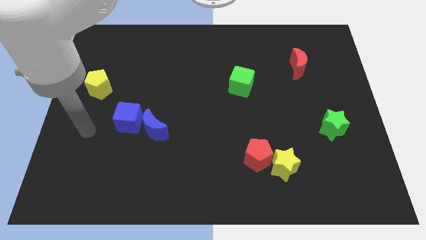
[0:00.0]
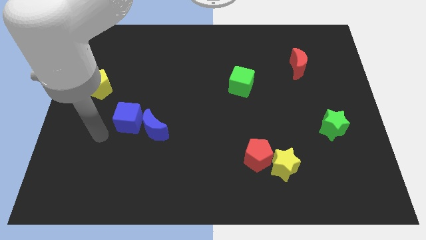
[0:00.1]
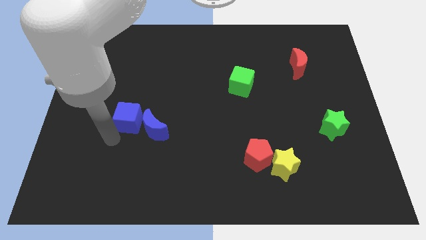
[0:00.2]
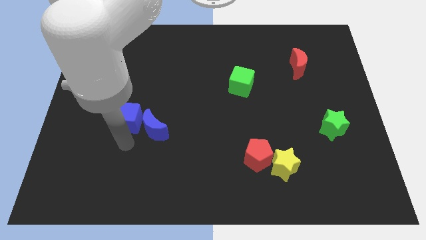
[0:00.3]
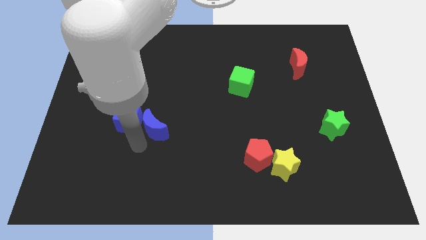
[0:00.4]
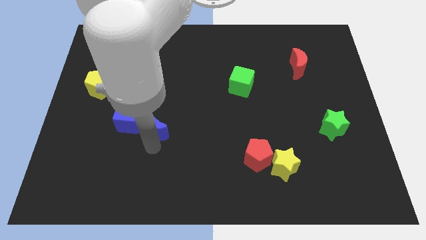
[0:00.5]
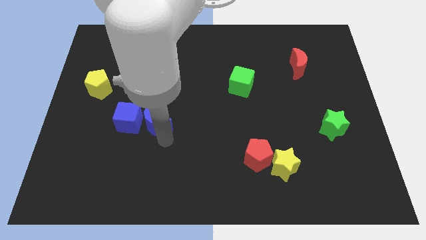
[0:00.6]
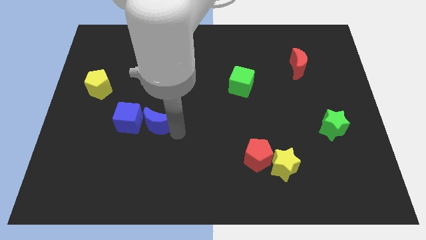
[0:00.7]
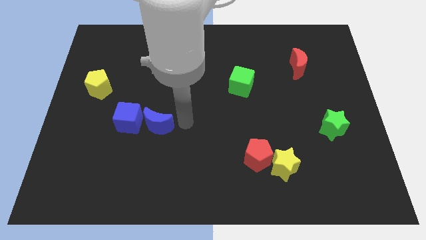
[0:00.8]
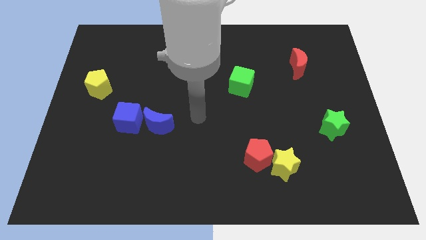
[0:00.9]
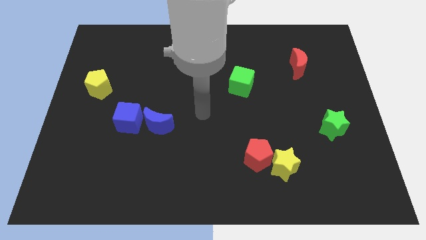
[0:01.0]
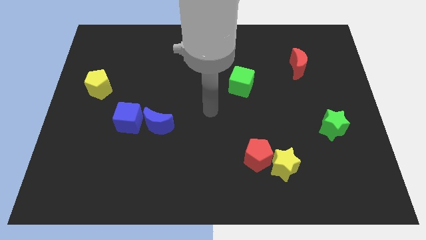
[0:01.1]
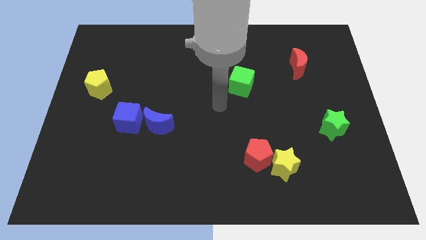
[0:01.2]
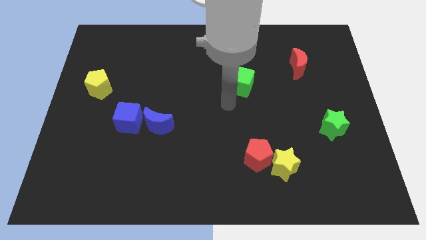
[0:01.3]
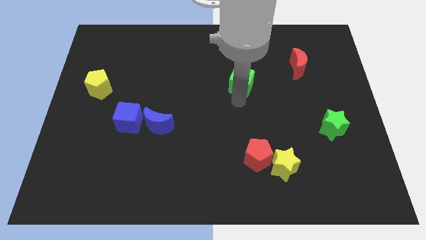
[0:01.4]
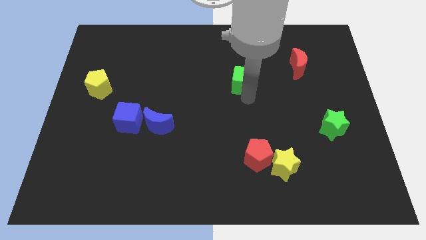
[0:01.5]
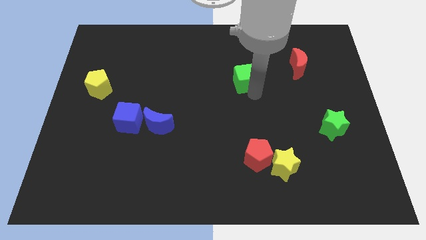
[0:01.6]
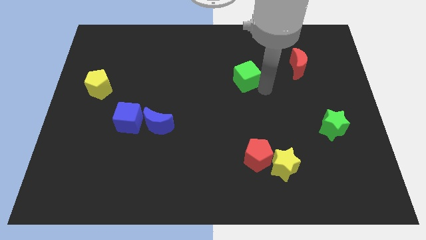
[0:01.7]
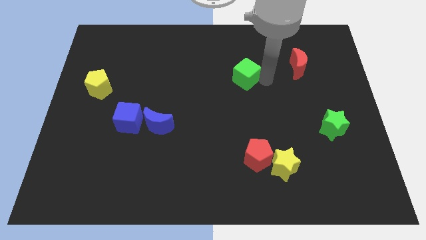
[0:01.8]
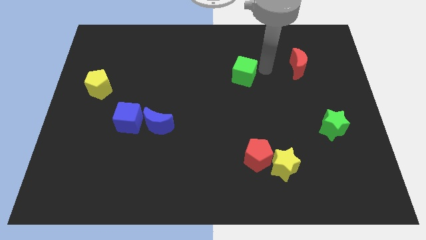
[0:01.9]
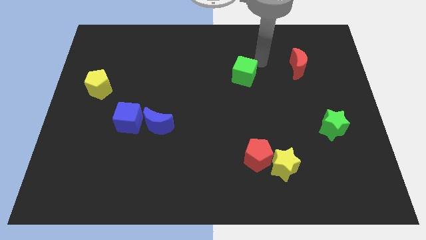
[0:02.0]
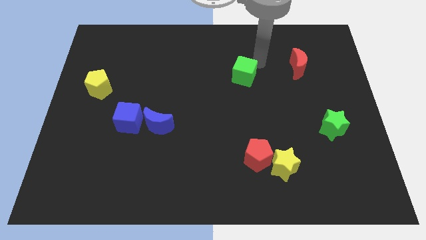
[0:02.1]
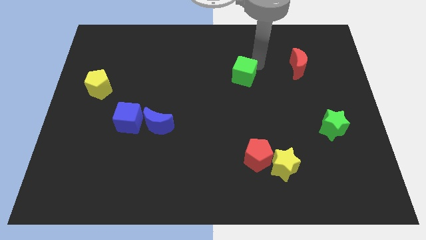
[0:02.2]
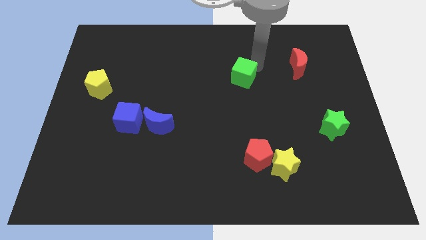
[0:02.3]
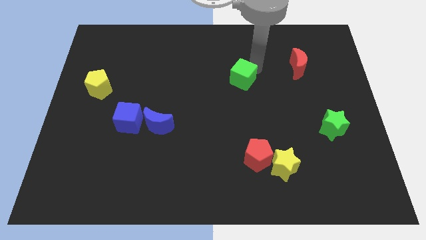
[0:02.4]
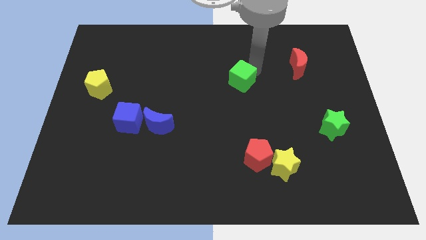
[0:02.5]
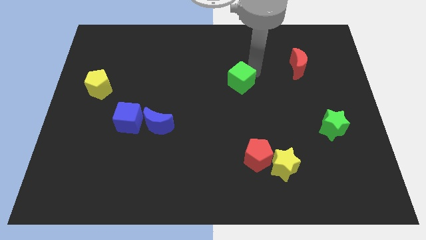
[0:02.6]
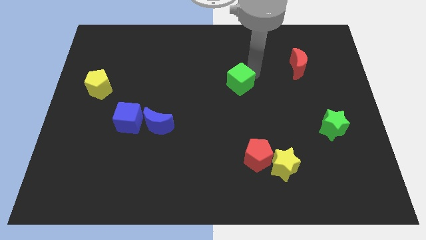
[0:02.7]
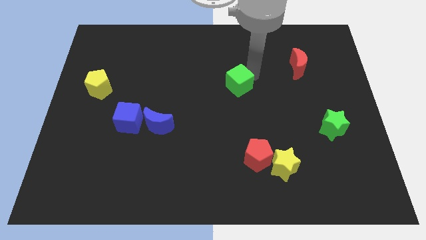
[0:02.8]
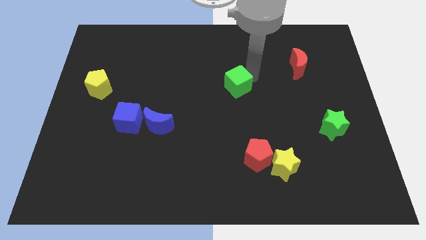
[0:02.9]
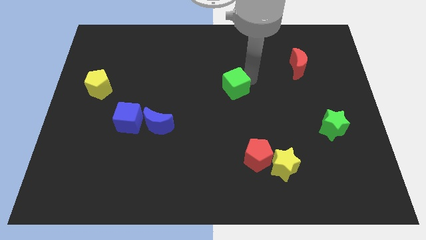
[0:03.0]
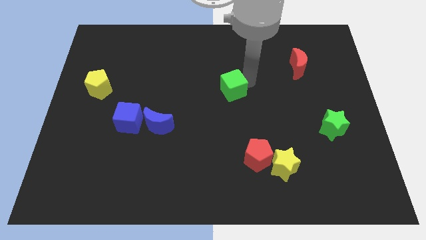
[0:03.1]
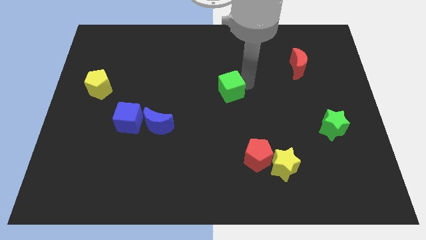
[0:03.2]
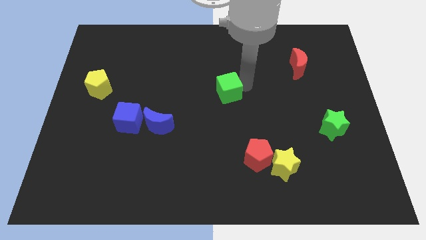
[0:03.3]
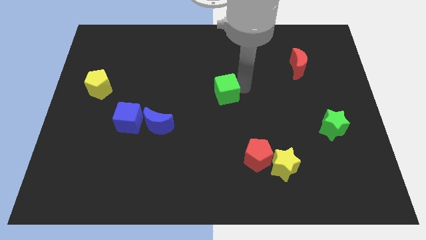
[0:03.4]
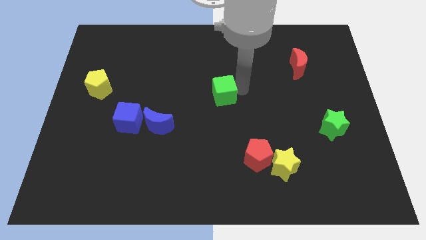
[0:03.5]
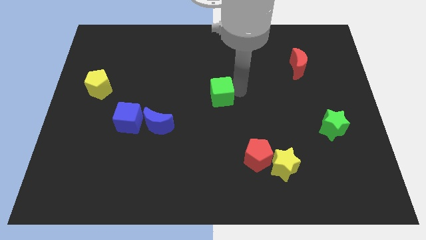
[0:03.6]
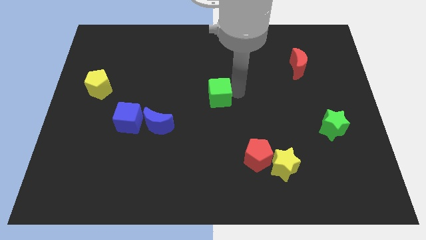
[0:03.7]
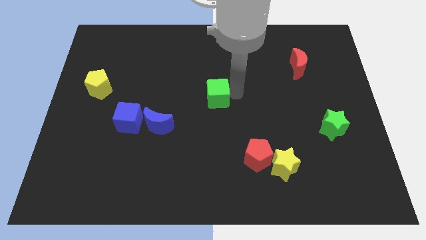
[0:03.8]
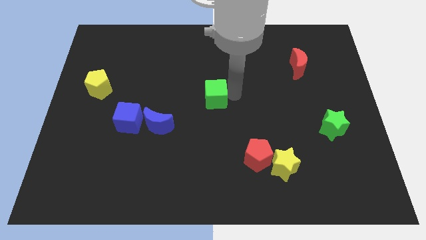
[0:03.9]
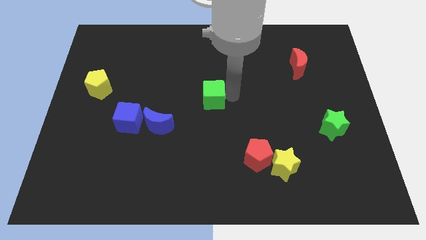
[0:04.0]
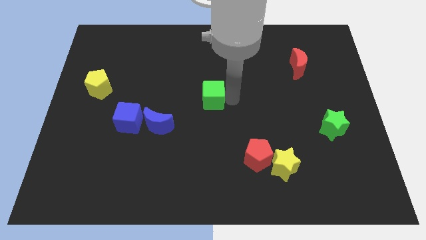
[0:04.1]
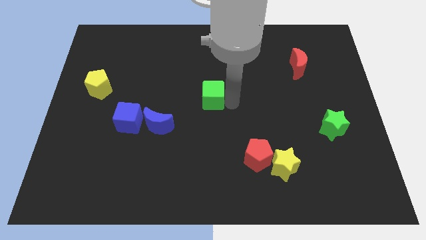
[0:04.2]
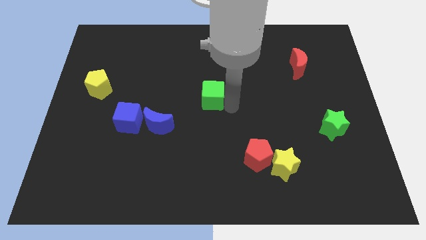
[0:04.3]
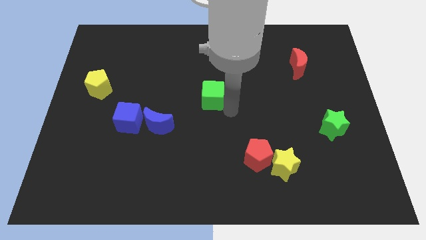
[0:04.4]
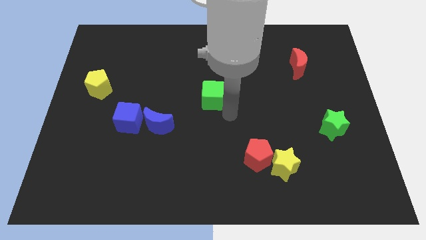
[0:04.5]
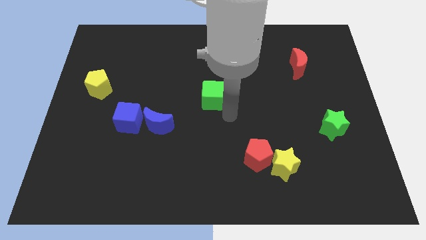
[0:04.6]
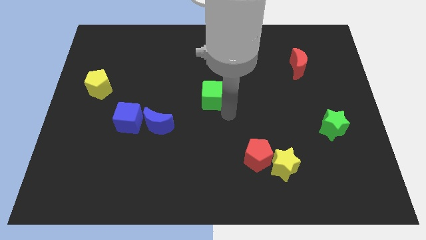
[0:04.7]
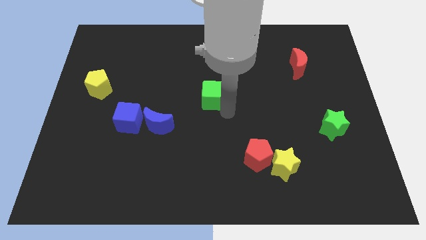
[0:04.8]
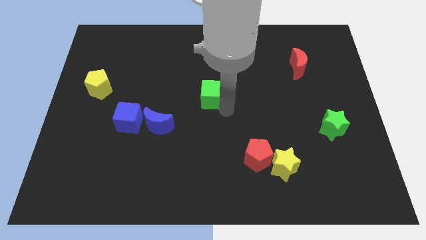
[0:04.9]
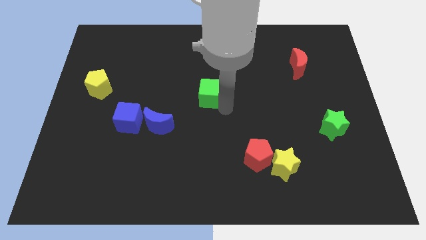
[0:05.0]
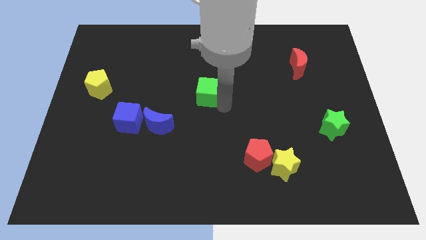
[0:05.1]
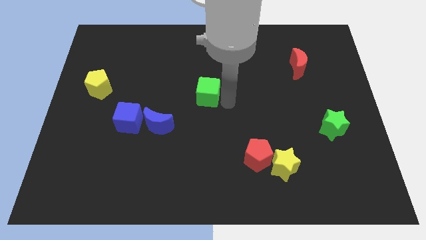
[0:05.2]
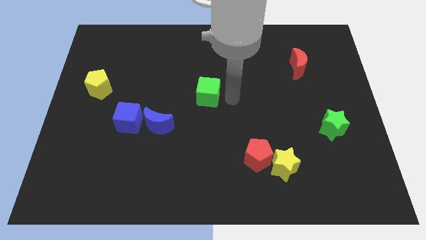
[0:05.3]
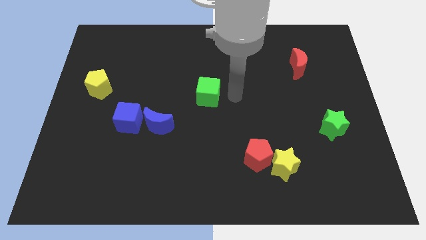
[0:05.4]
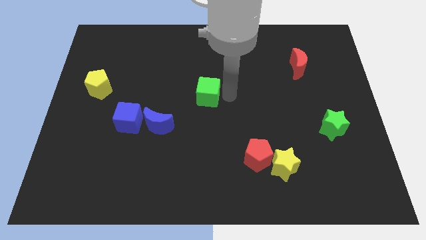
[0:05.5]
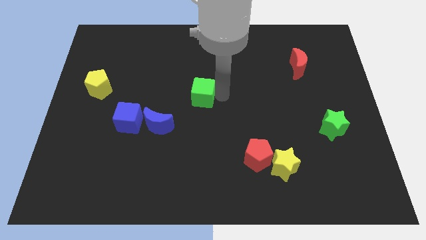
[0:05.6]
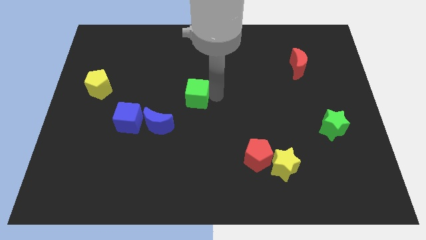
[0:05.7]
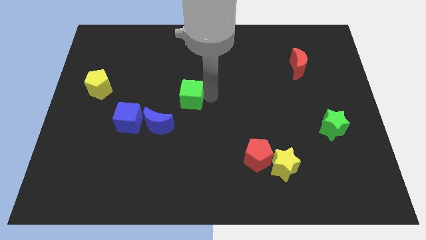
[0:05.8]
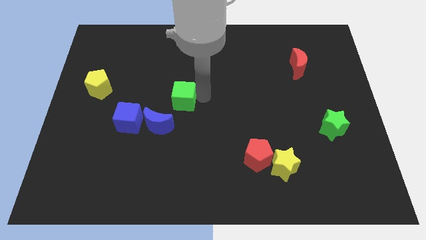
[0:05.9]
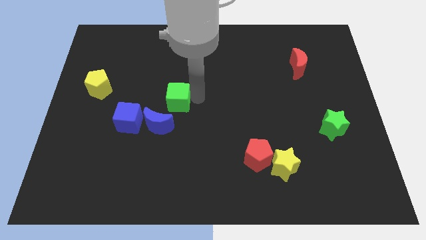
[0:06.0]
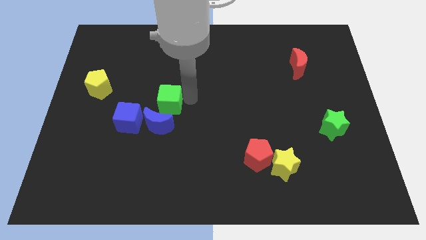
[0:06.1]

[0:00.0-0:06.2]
push the green cube to the top right side of the blue cube

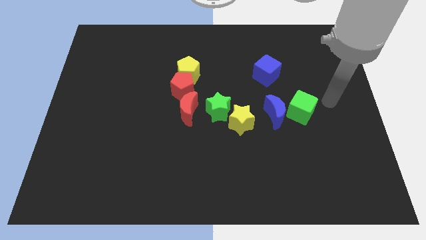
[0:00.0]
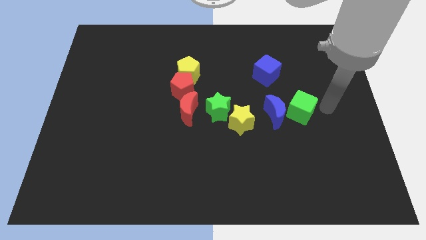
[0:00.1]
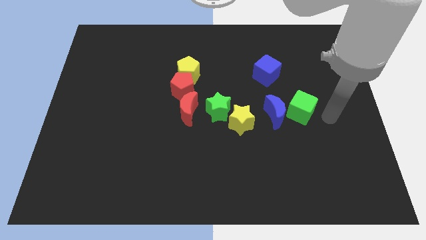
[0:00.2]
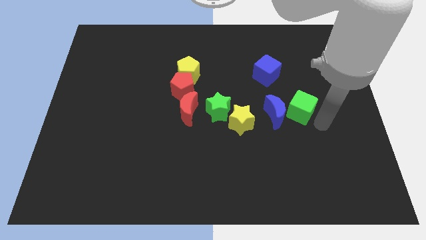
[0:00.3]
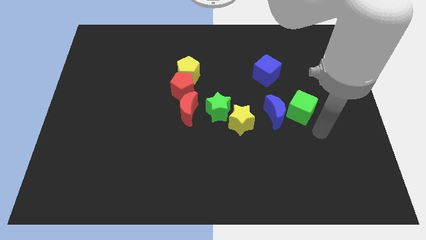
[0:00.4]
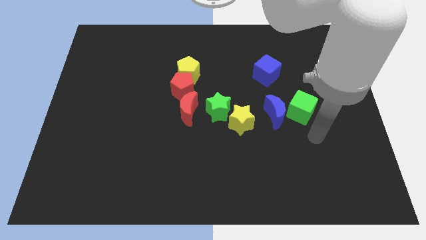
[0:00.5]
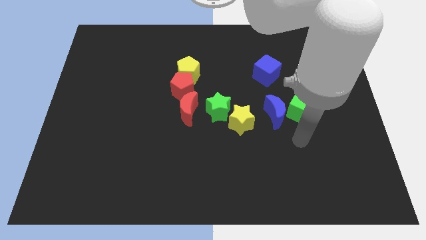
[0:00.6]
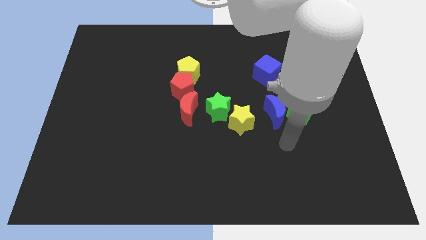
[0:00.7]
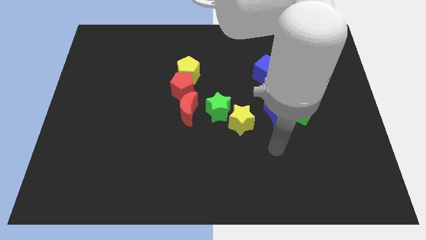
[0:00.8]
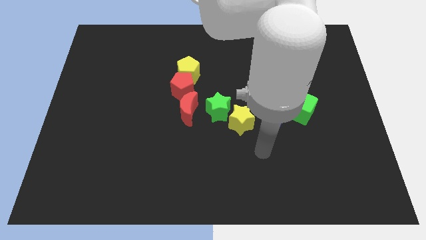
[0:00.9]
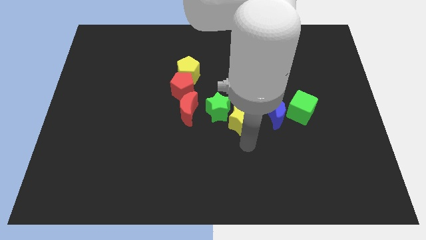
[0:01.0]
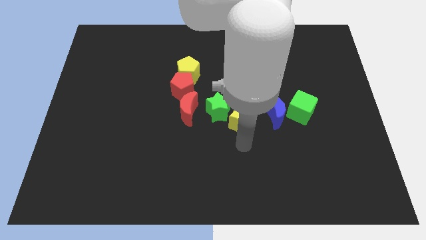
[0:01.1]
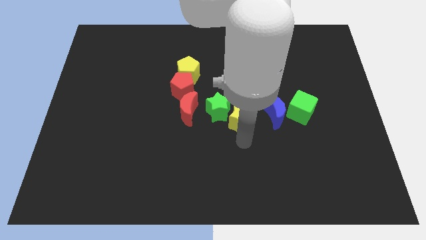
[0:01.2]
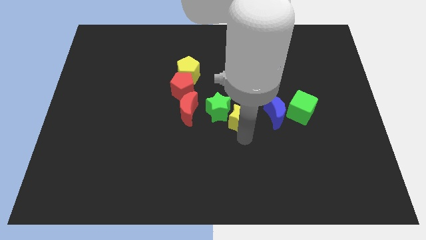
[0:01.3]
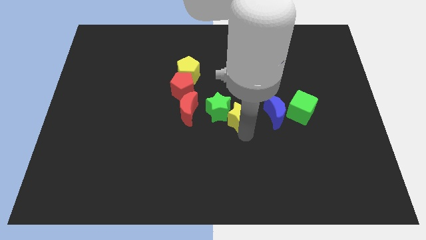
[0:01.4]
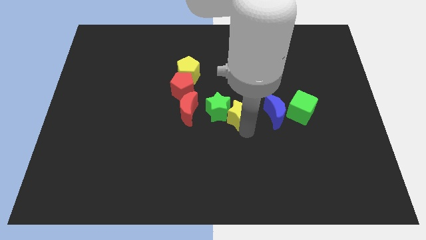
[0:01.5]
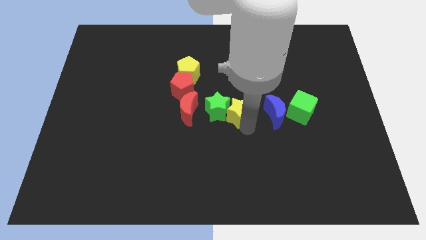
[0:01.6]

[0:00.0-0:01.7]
move the yellow star to the top right side of the green star
